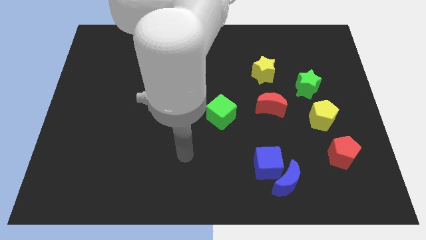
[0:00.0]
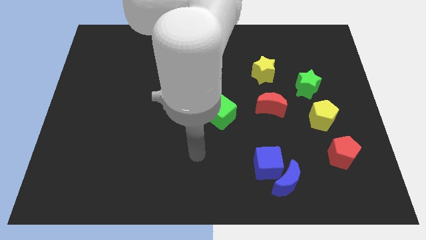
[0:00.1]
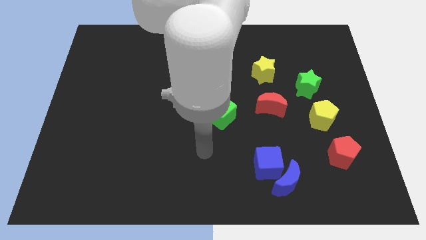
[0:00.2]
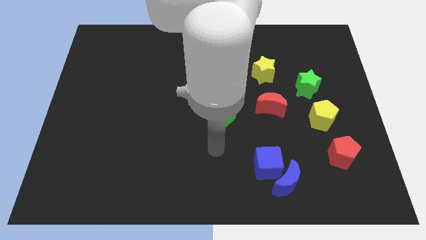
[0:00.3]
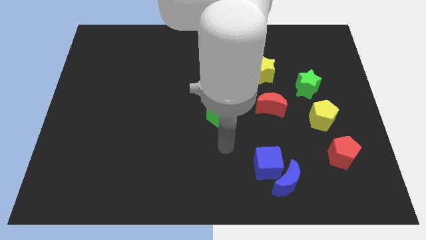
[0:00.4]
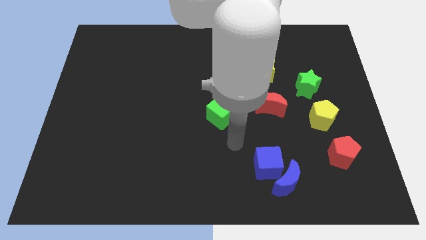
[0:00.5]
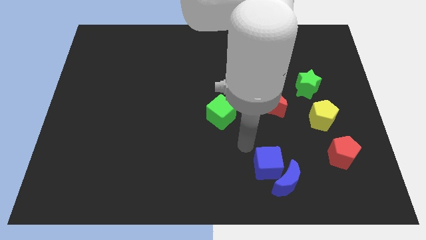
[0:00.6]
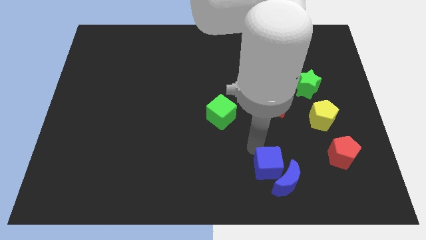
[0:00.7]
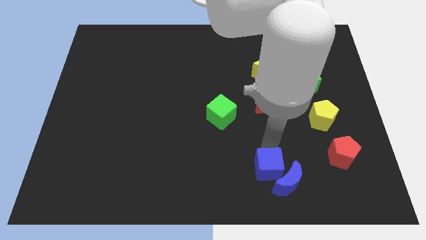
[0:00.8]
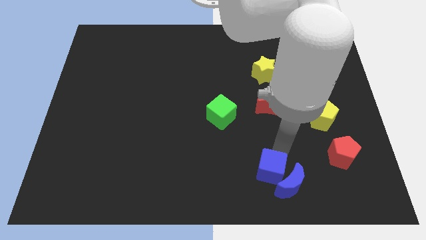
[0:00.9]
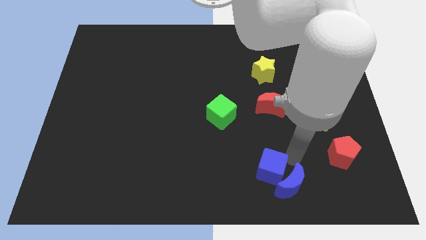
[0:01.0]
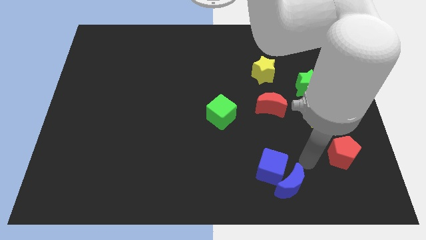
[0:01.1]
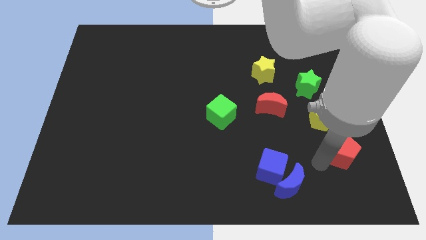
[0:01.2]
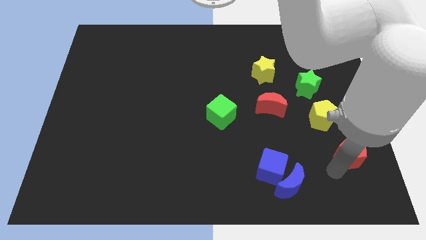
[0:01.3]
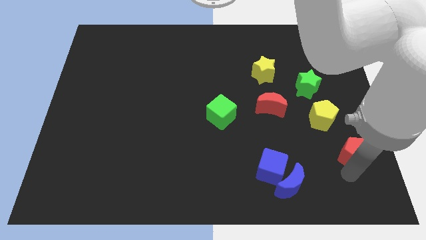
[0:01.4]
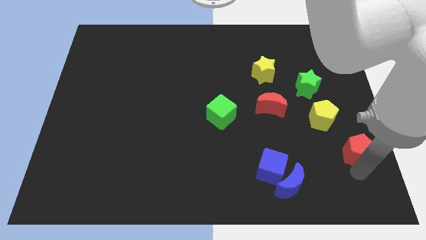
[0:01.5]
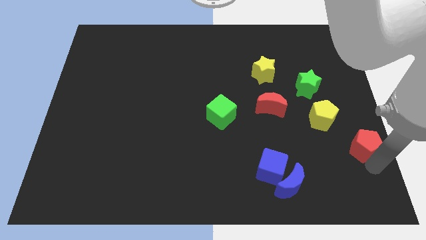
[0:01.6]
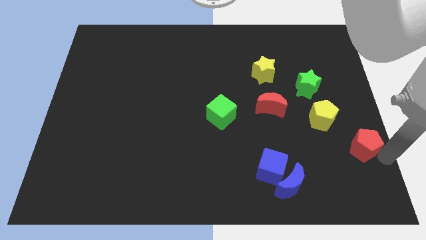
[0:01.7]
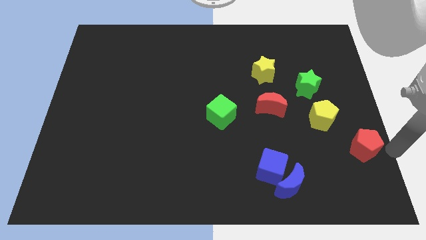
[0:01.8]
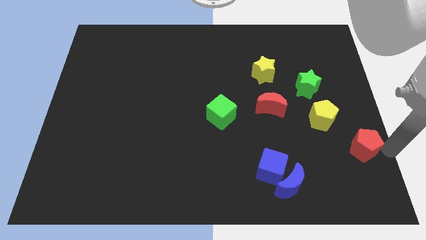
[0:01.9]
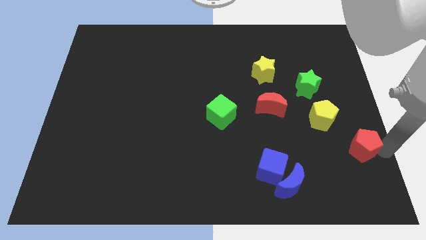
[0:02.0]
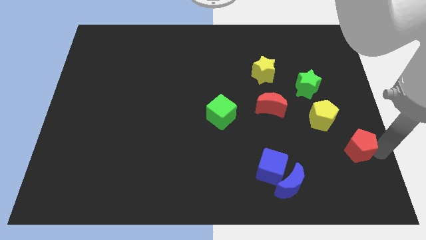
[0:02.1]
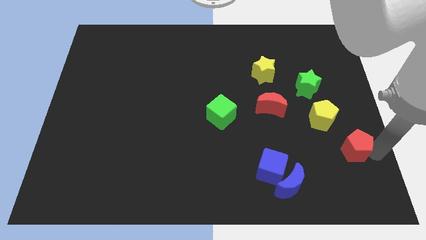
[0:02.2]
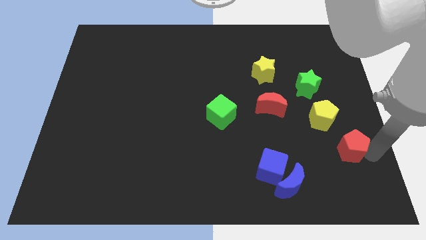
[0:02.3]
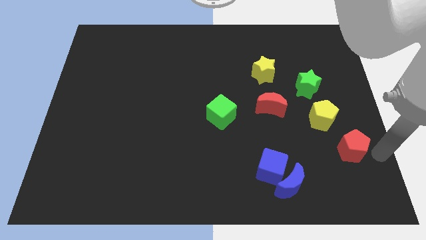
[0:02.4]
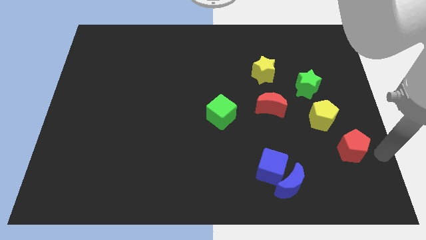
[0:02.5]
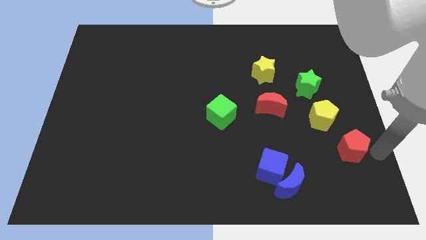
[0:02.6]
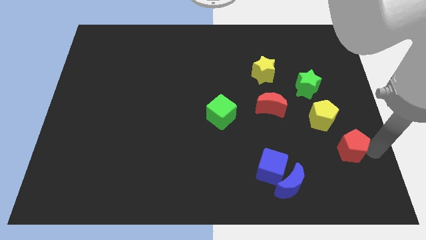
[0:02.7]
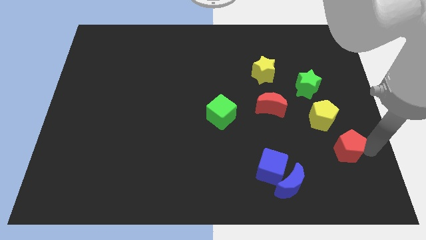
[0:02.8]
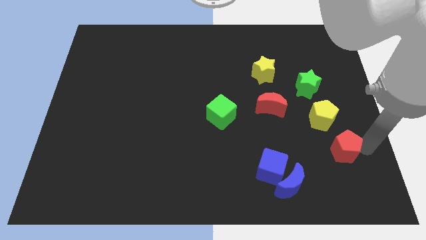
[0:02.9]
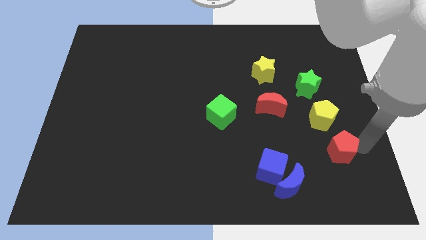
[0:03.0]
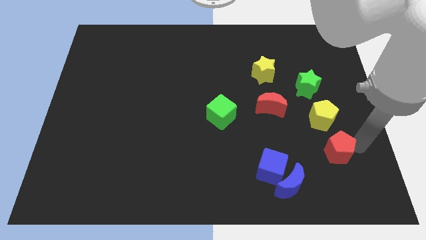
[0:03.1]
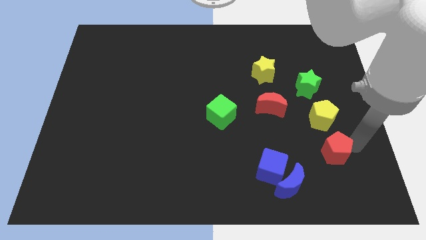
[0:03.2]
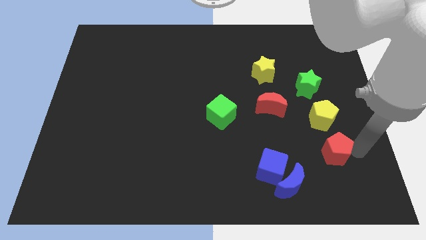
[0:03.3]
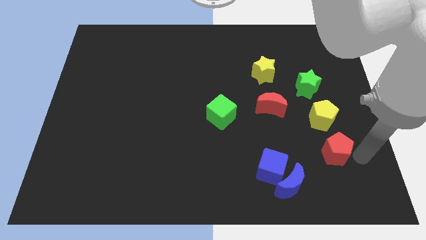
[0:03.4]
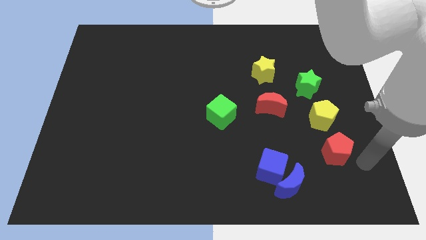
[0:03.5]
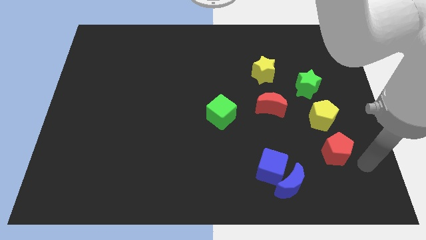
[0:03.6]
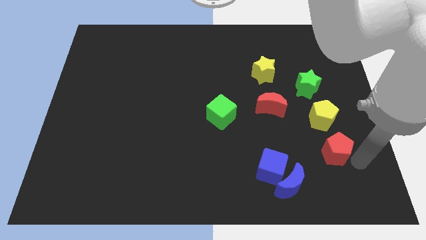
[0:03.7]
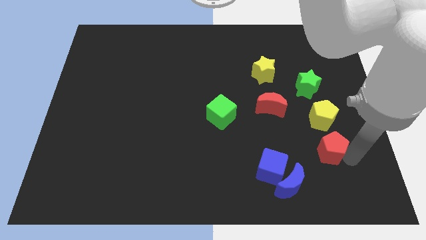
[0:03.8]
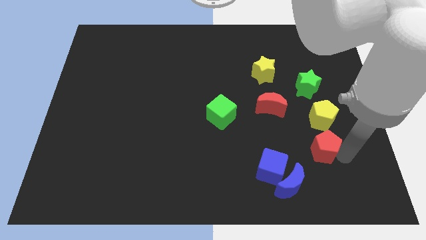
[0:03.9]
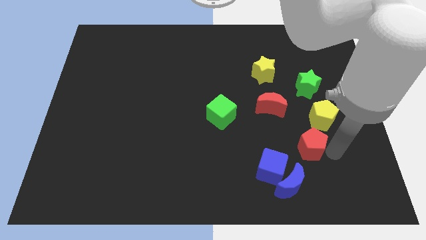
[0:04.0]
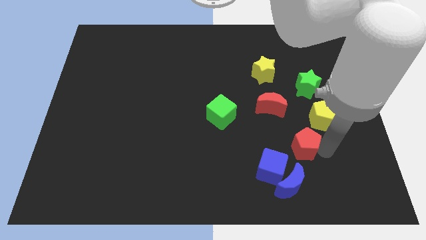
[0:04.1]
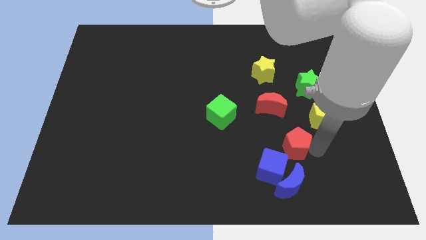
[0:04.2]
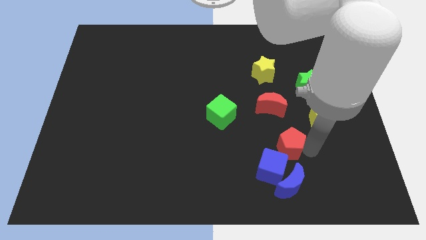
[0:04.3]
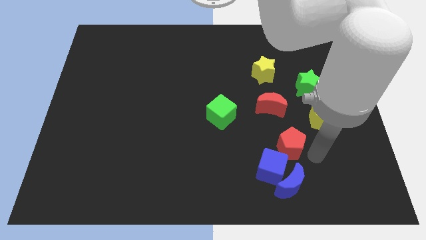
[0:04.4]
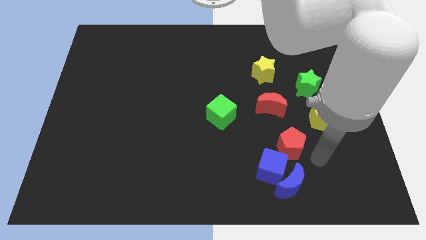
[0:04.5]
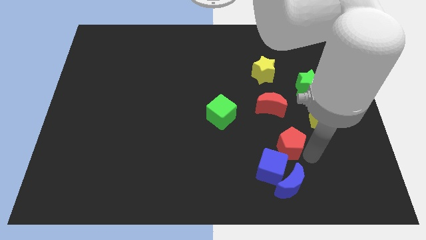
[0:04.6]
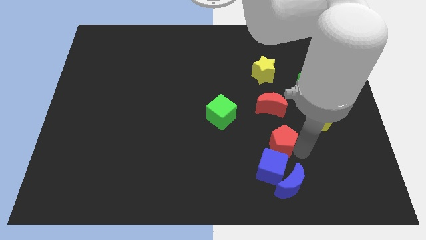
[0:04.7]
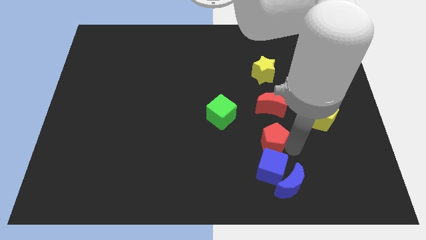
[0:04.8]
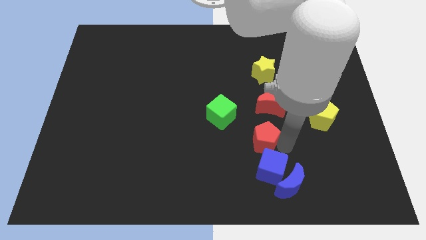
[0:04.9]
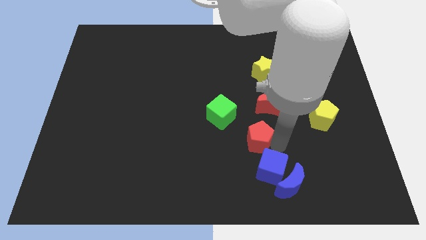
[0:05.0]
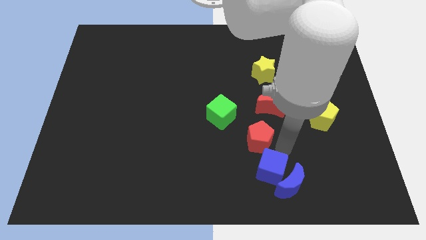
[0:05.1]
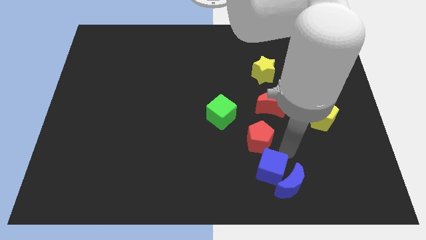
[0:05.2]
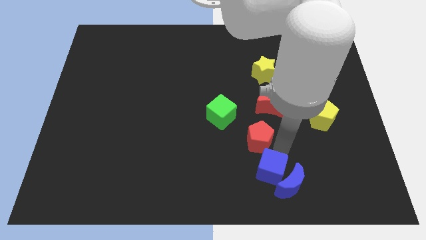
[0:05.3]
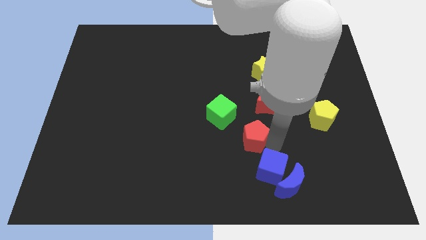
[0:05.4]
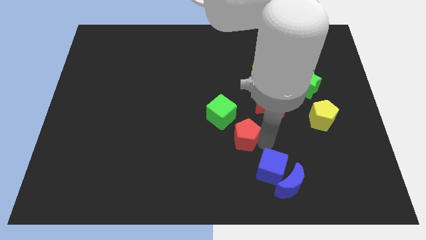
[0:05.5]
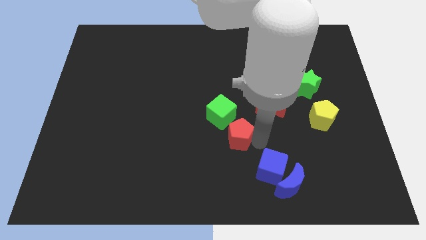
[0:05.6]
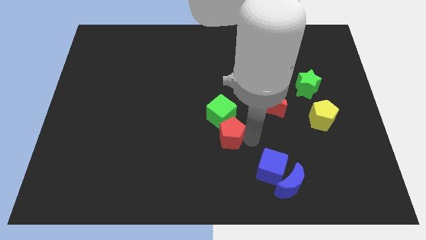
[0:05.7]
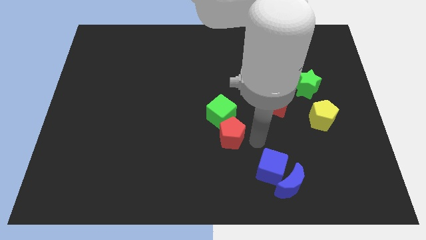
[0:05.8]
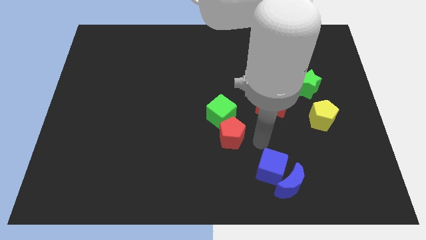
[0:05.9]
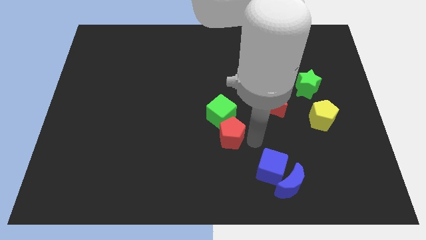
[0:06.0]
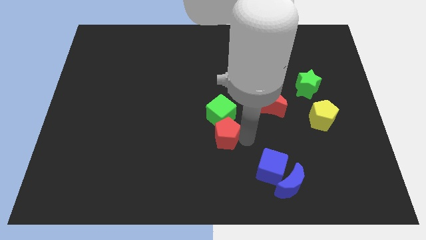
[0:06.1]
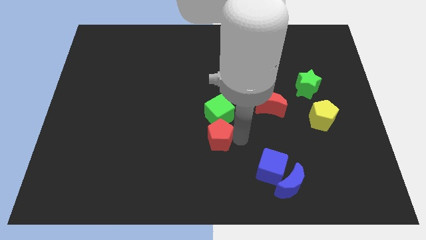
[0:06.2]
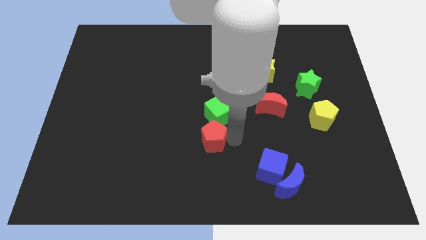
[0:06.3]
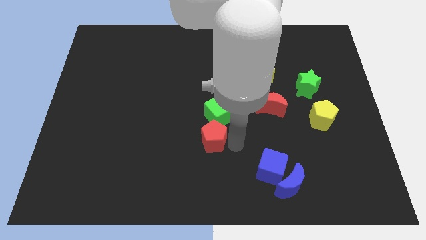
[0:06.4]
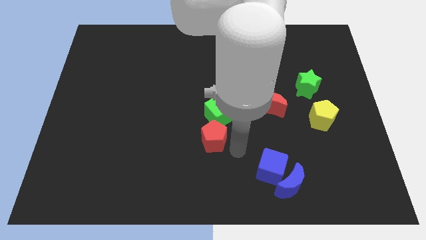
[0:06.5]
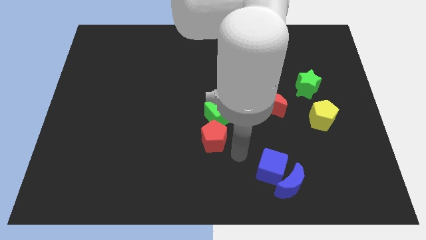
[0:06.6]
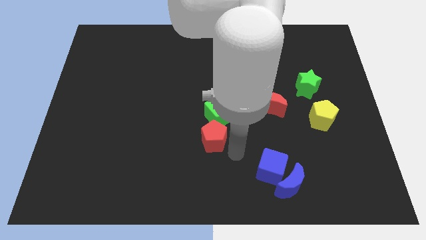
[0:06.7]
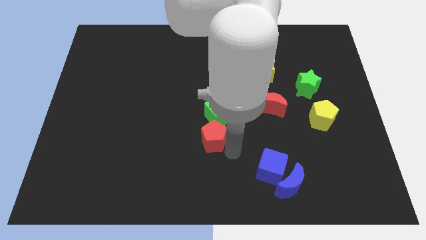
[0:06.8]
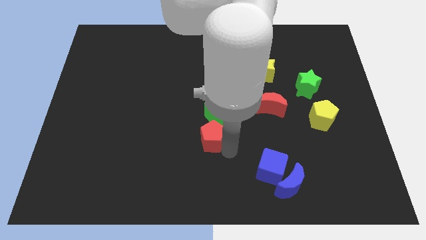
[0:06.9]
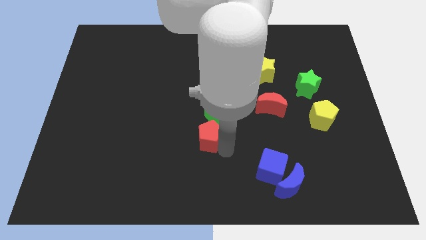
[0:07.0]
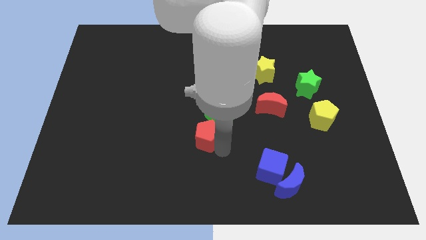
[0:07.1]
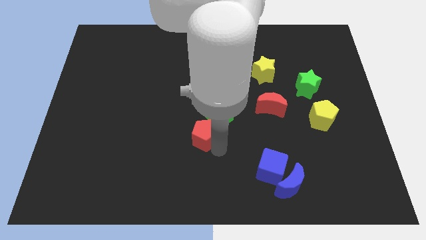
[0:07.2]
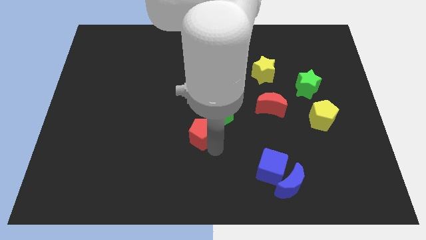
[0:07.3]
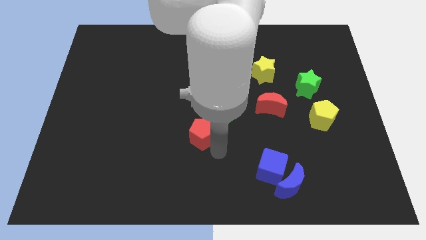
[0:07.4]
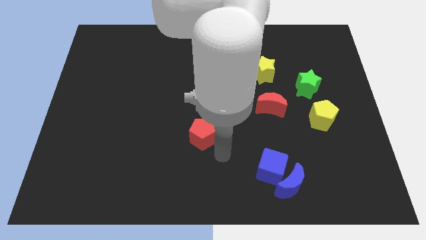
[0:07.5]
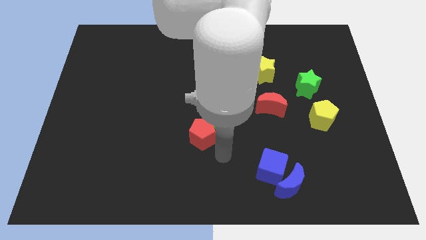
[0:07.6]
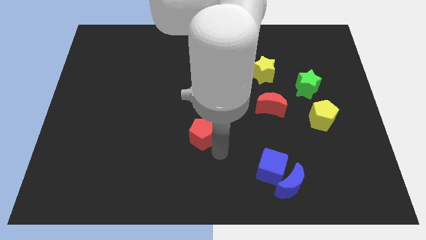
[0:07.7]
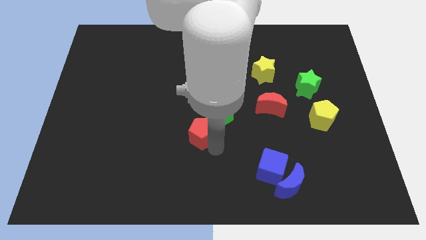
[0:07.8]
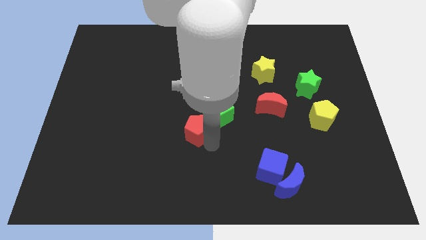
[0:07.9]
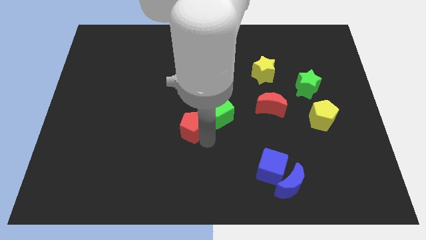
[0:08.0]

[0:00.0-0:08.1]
move the red pentagon just left of the green cube
